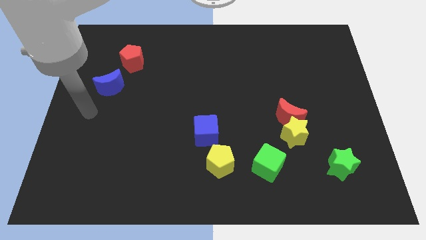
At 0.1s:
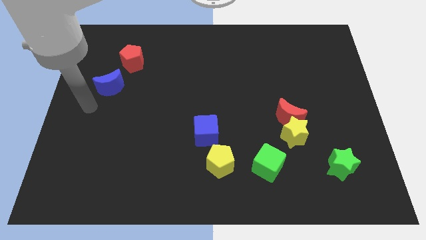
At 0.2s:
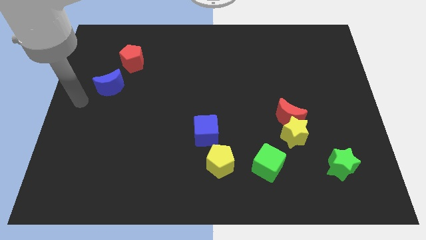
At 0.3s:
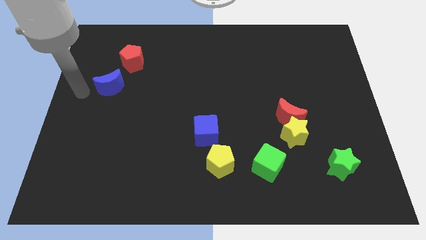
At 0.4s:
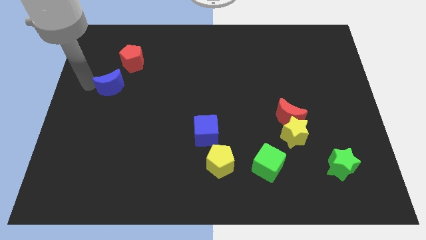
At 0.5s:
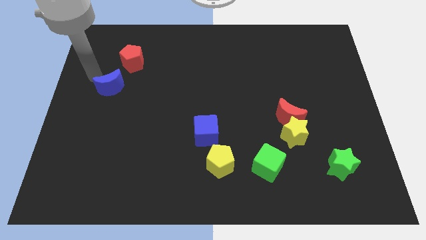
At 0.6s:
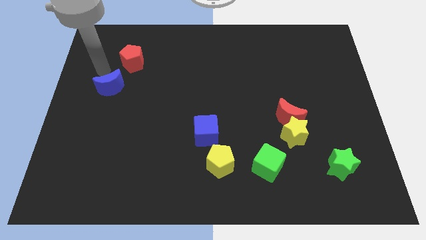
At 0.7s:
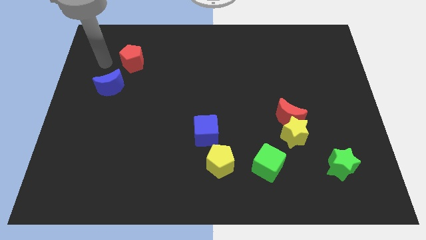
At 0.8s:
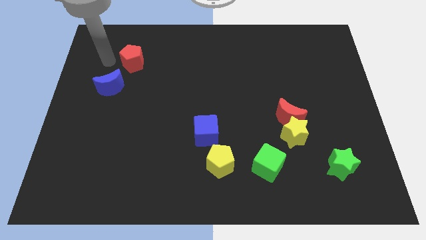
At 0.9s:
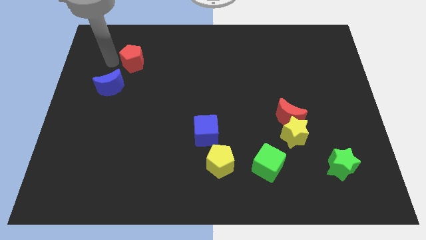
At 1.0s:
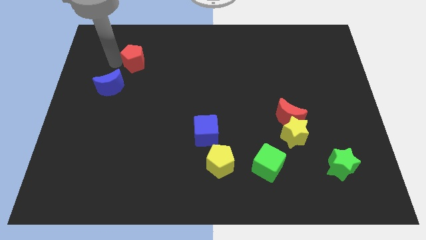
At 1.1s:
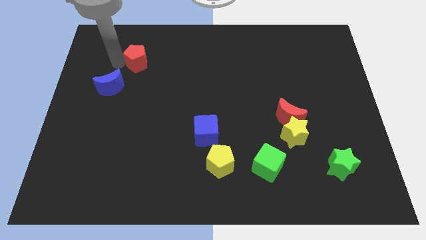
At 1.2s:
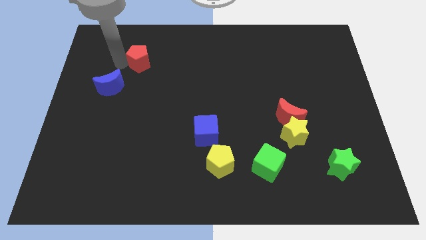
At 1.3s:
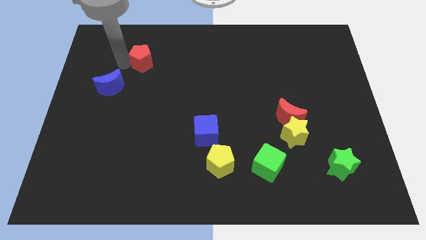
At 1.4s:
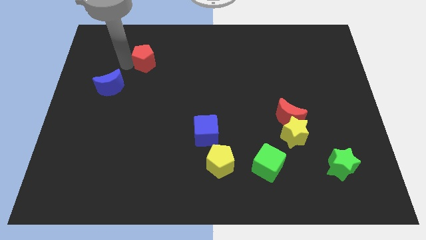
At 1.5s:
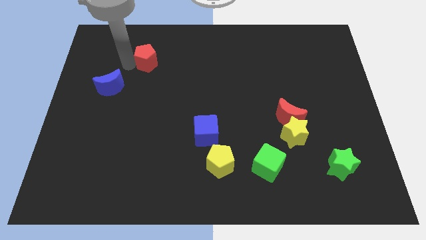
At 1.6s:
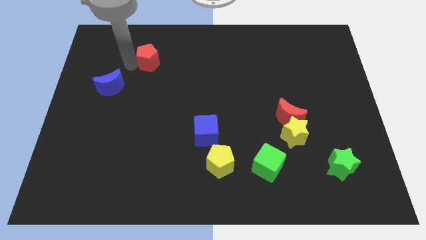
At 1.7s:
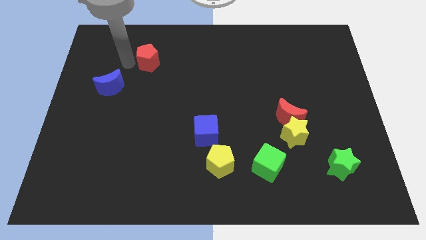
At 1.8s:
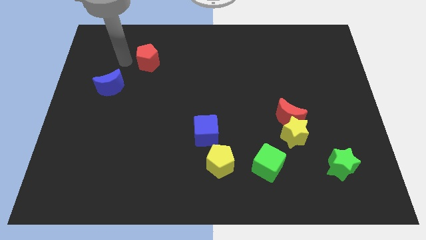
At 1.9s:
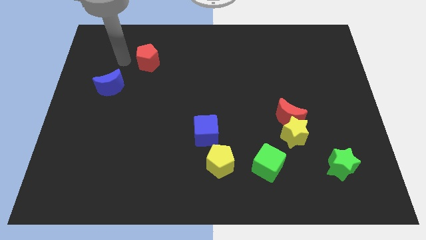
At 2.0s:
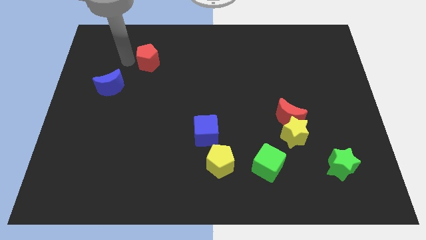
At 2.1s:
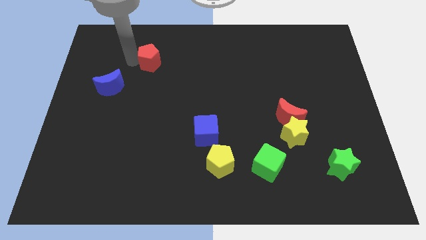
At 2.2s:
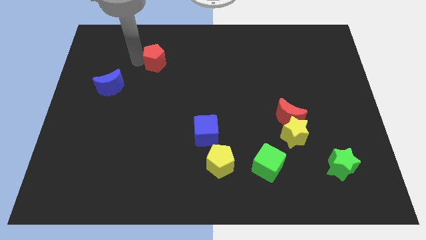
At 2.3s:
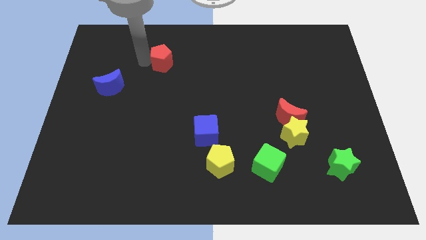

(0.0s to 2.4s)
slightly slide the red pentagon right

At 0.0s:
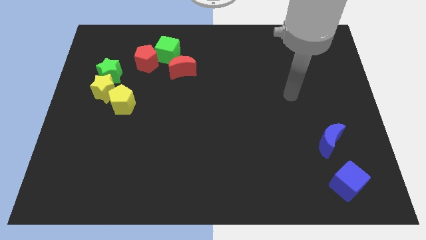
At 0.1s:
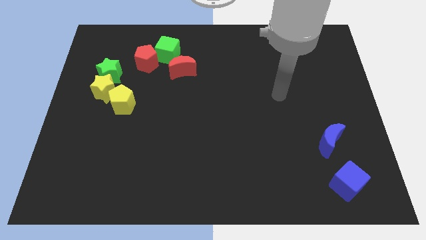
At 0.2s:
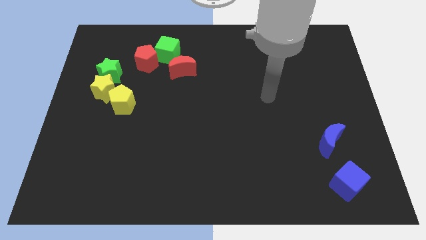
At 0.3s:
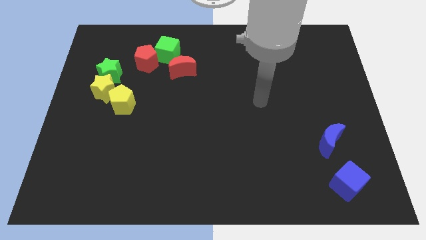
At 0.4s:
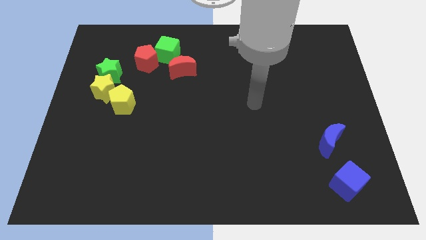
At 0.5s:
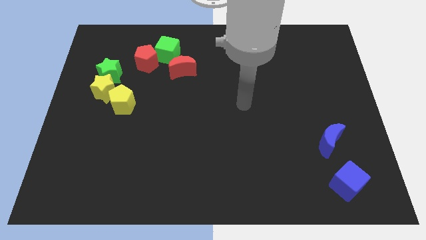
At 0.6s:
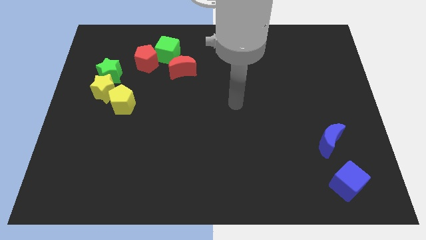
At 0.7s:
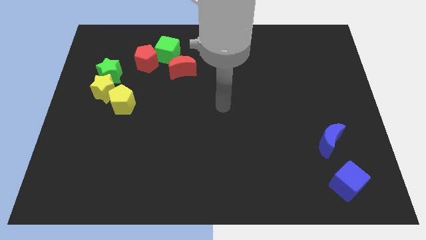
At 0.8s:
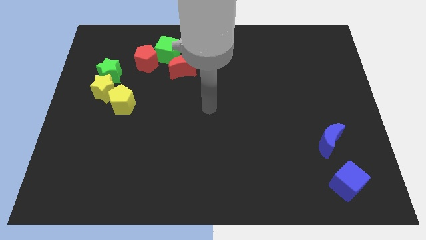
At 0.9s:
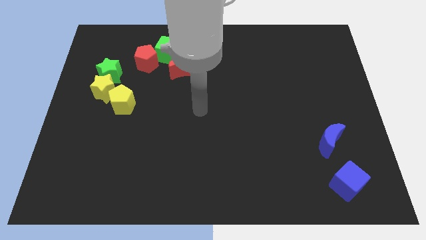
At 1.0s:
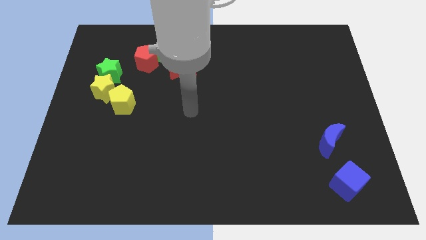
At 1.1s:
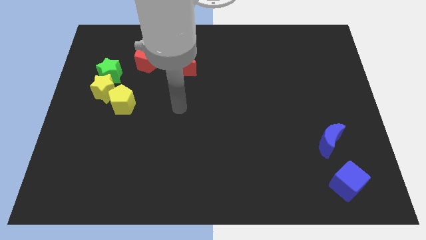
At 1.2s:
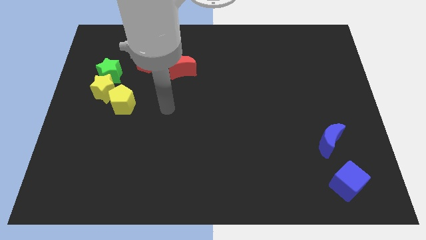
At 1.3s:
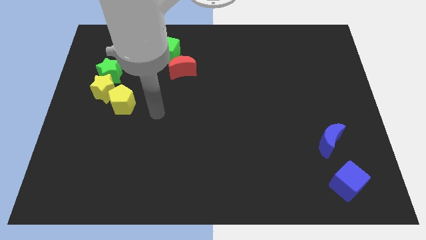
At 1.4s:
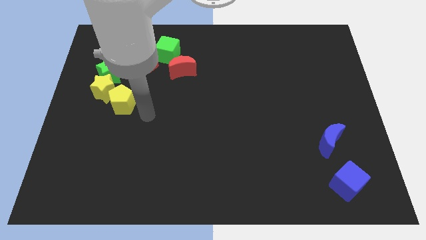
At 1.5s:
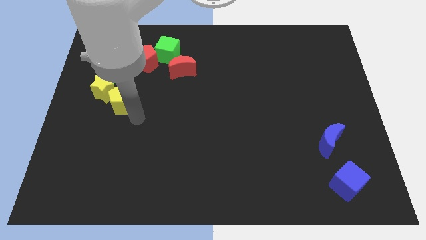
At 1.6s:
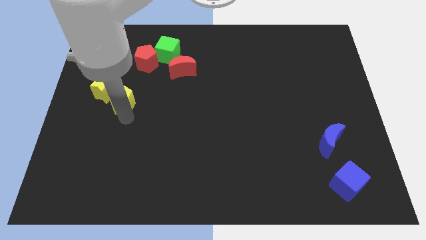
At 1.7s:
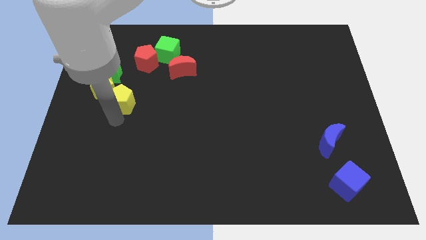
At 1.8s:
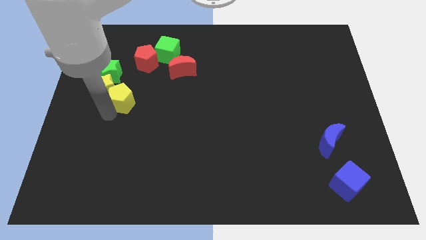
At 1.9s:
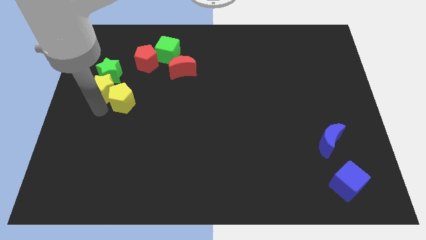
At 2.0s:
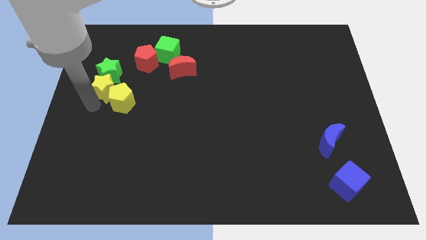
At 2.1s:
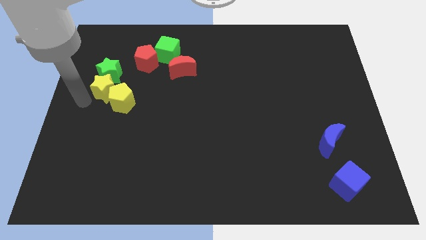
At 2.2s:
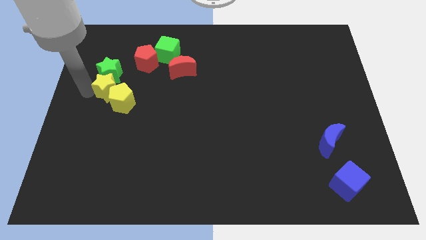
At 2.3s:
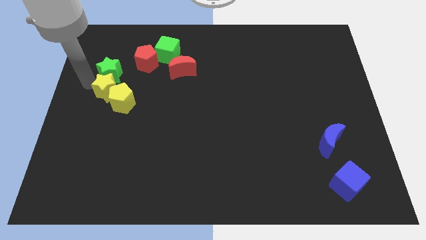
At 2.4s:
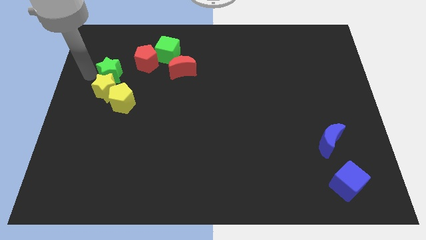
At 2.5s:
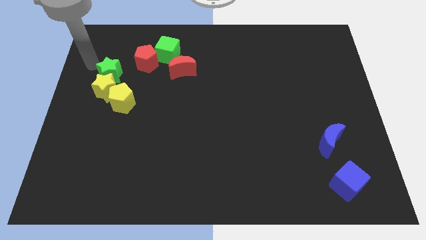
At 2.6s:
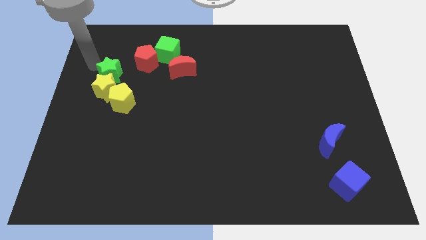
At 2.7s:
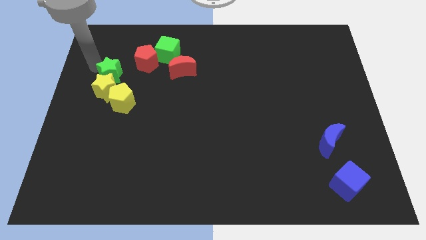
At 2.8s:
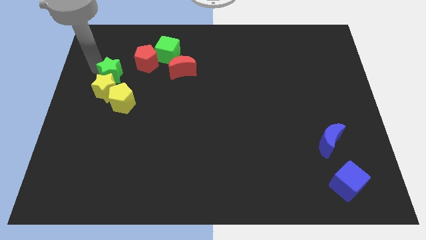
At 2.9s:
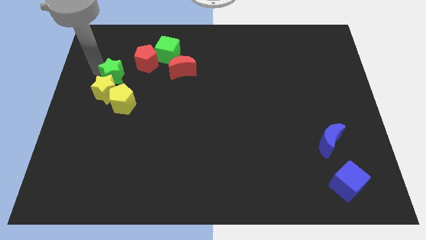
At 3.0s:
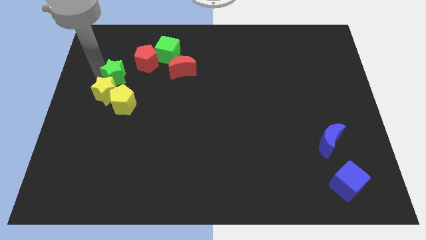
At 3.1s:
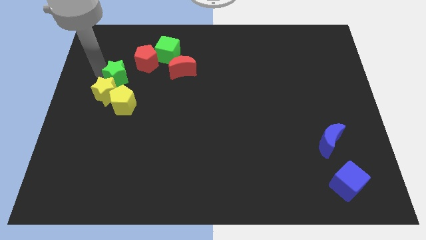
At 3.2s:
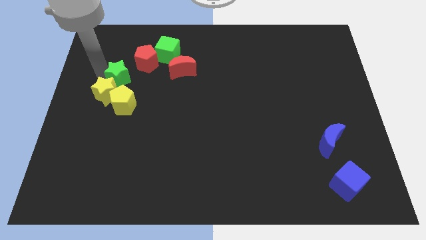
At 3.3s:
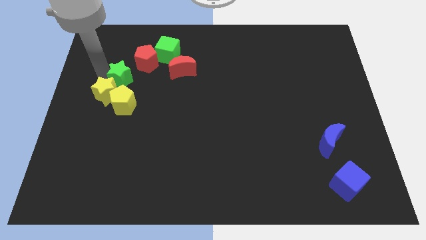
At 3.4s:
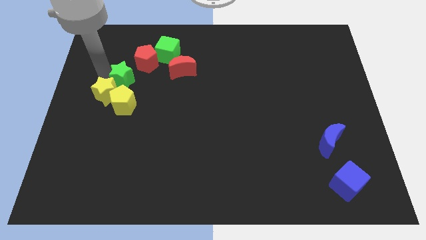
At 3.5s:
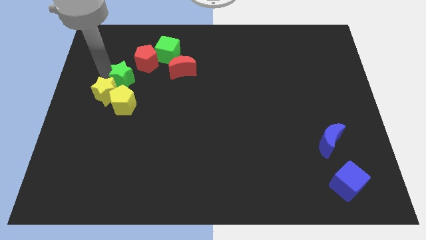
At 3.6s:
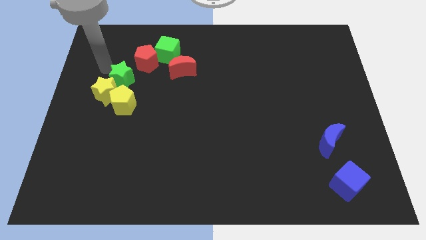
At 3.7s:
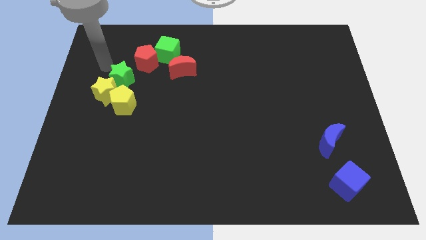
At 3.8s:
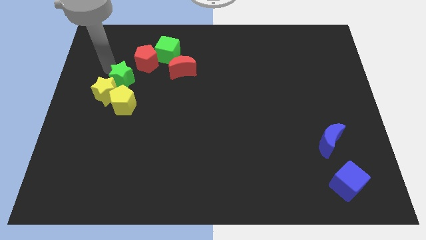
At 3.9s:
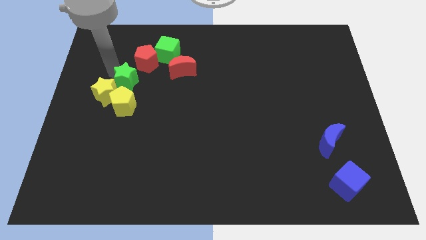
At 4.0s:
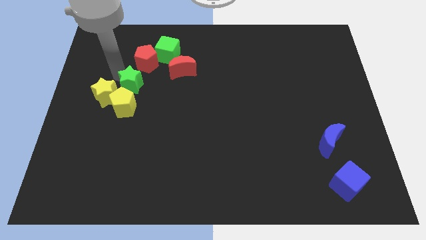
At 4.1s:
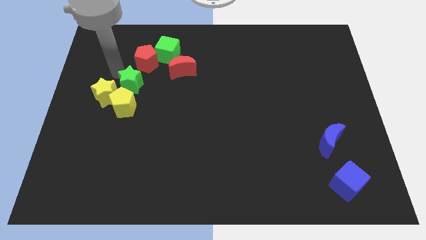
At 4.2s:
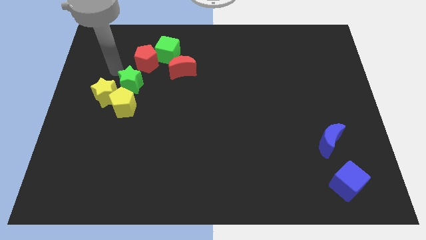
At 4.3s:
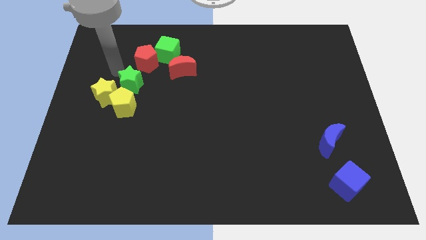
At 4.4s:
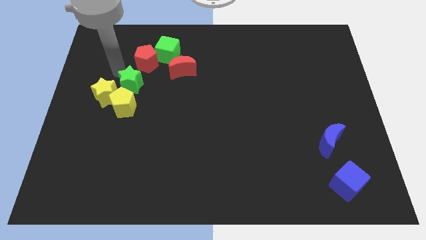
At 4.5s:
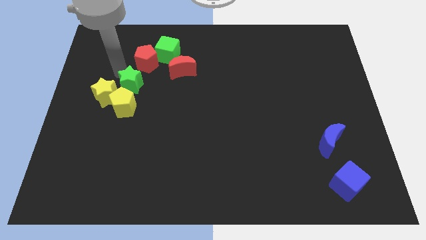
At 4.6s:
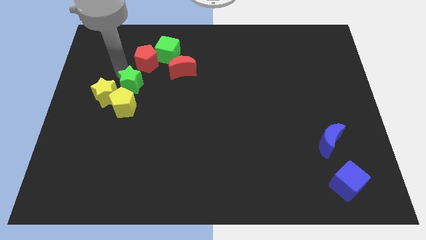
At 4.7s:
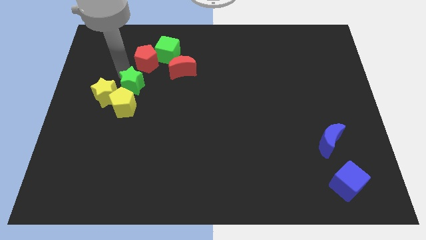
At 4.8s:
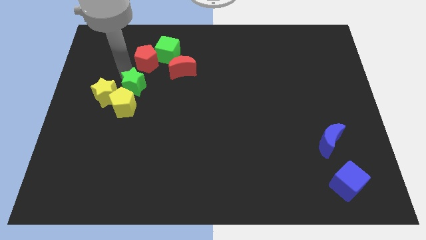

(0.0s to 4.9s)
move the green star a little bit downwards and then to the right

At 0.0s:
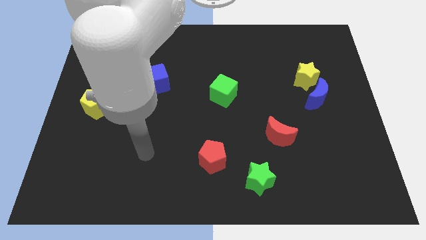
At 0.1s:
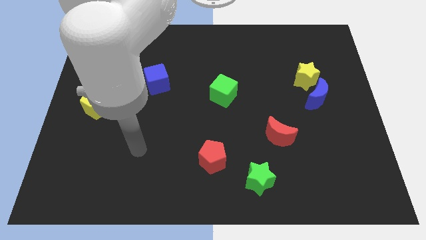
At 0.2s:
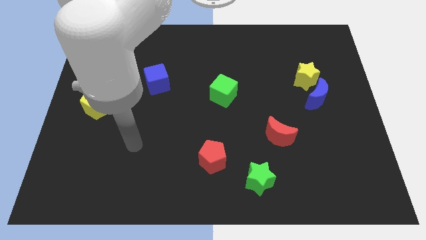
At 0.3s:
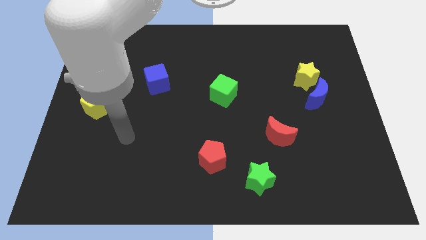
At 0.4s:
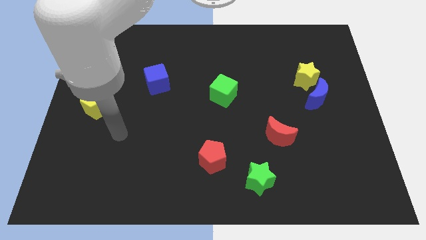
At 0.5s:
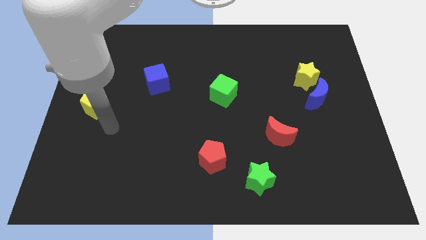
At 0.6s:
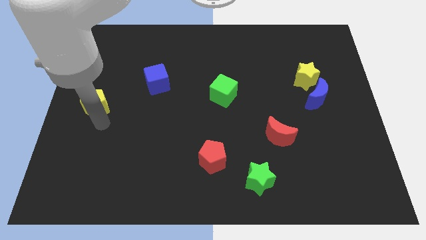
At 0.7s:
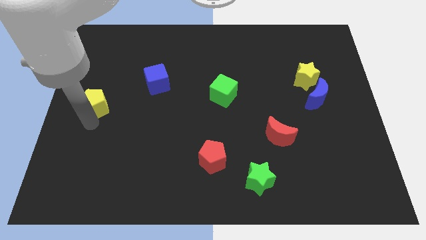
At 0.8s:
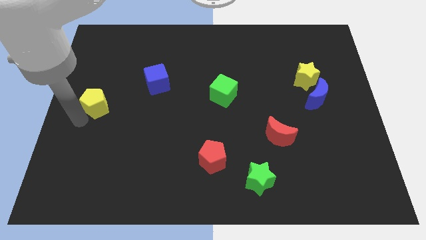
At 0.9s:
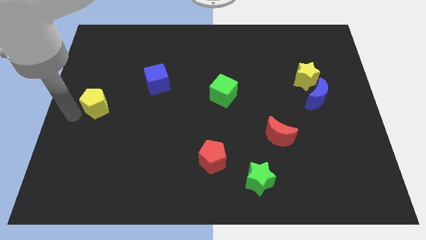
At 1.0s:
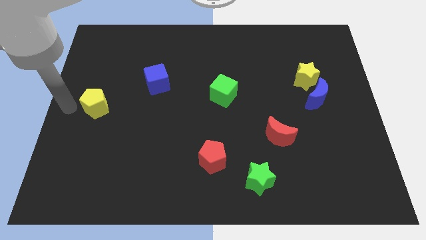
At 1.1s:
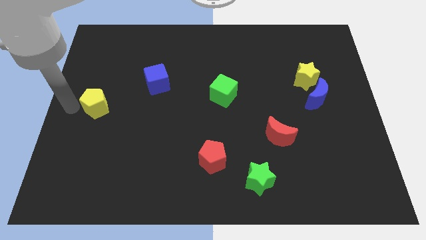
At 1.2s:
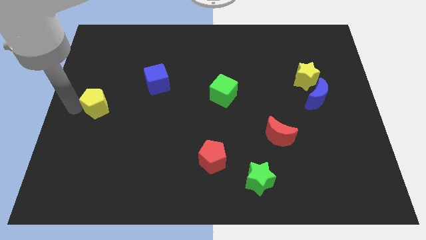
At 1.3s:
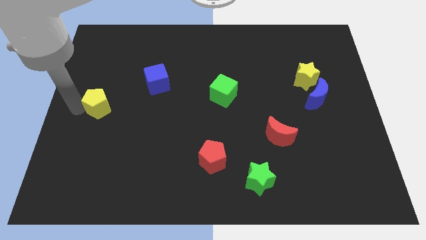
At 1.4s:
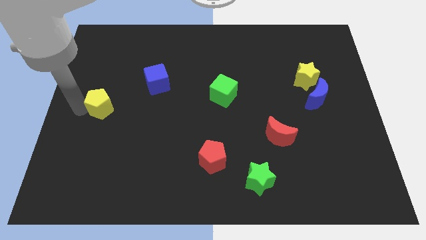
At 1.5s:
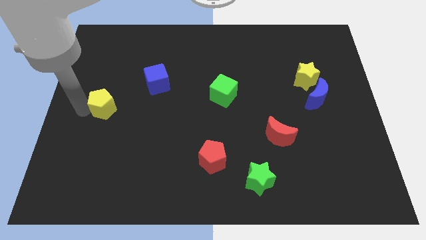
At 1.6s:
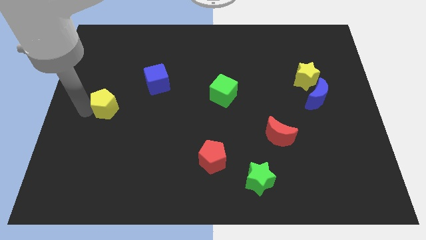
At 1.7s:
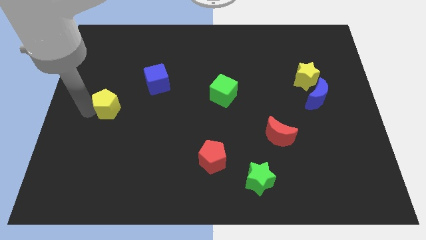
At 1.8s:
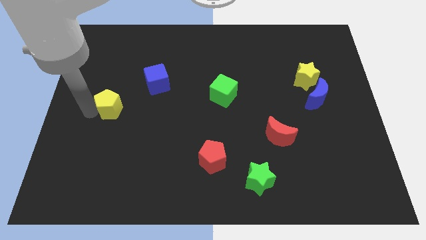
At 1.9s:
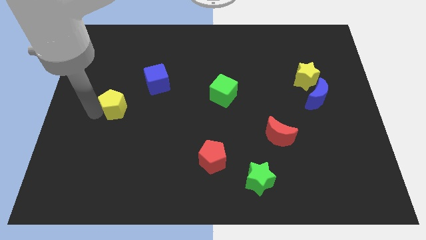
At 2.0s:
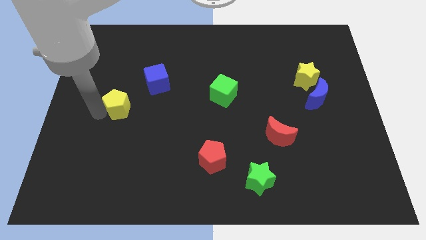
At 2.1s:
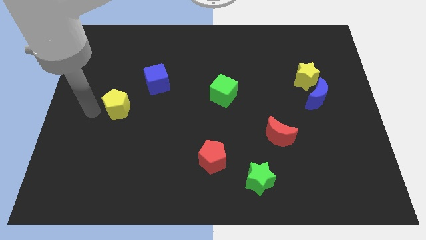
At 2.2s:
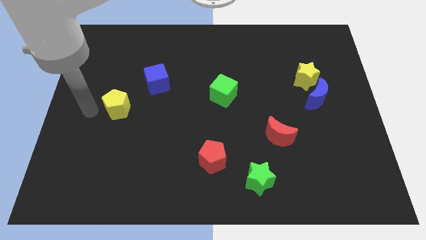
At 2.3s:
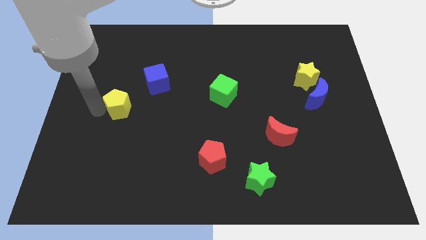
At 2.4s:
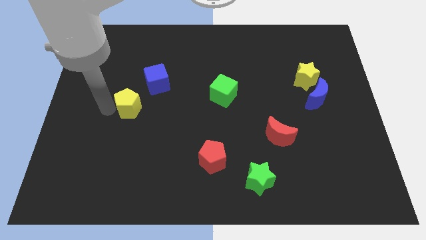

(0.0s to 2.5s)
slide the yellow pentagon a bit right
